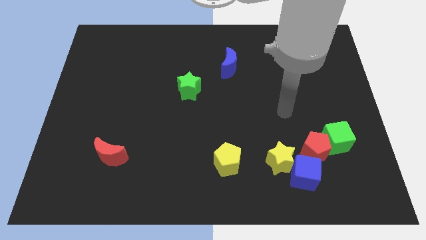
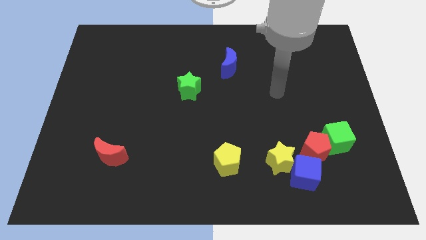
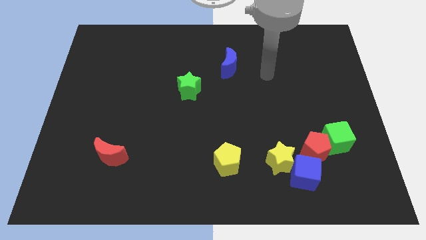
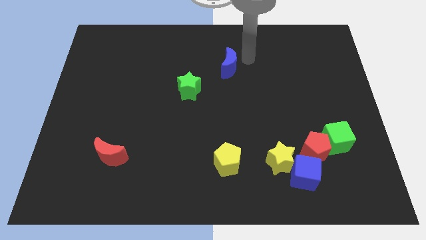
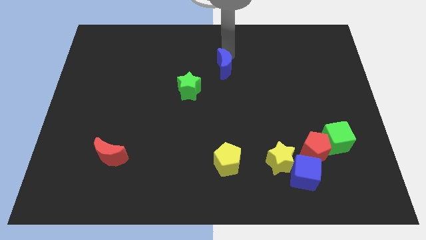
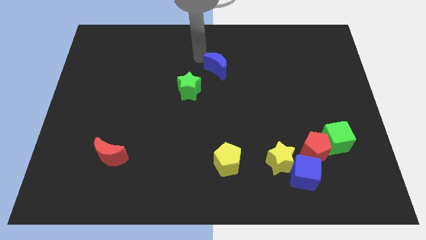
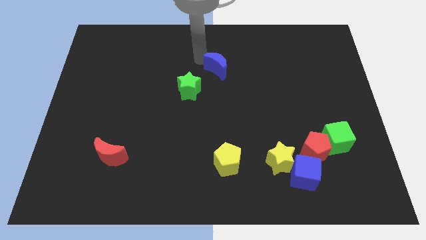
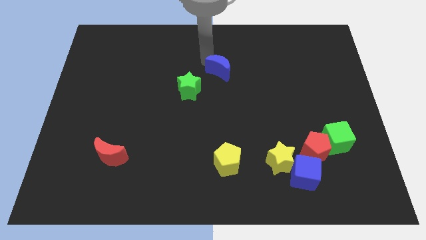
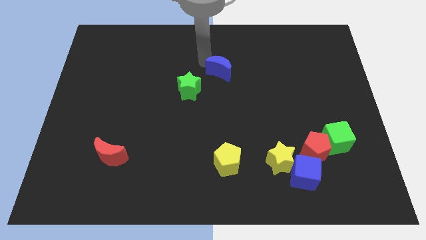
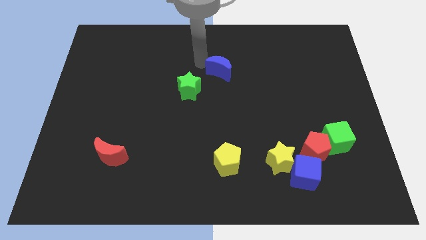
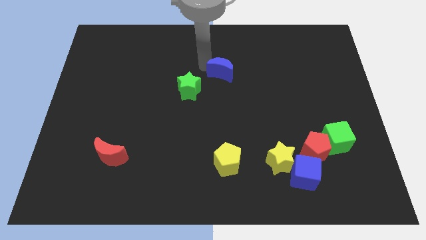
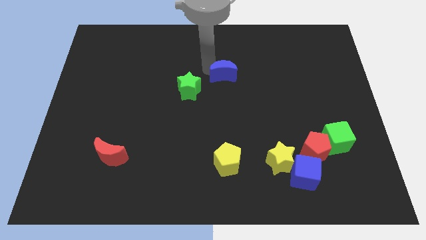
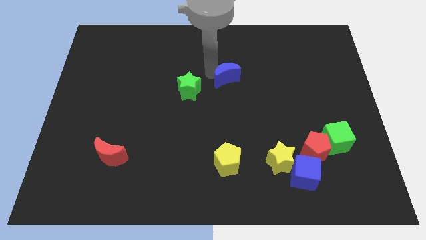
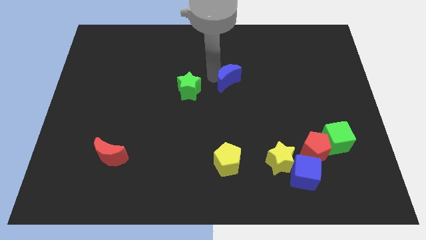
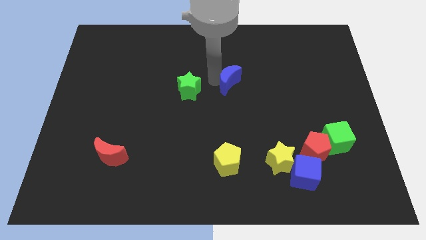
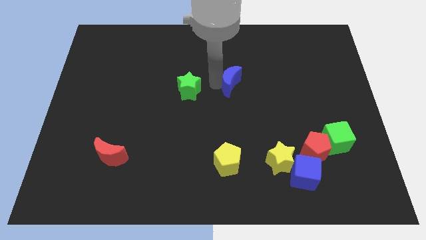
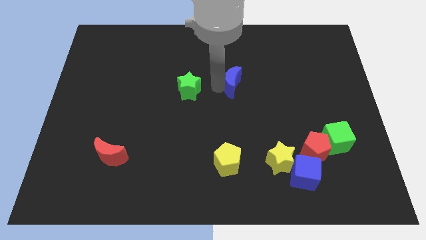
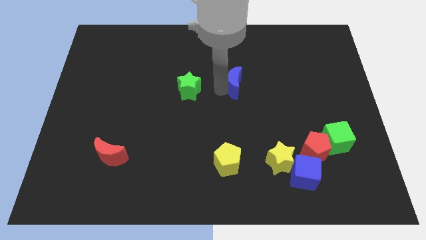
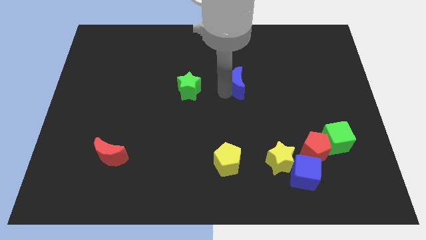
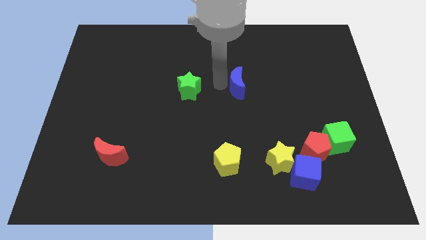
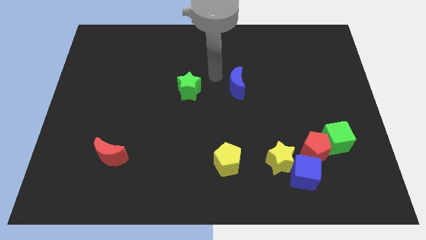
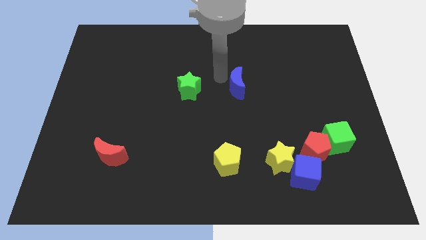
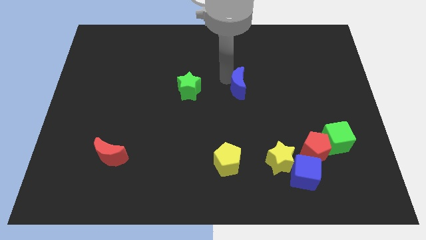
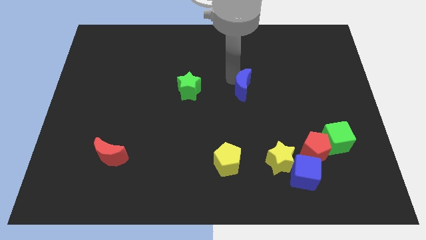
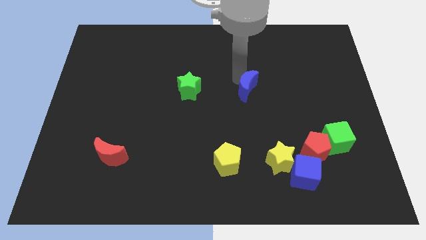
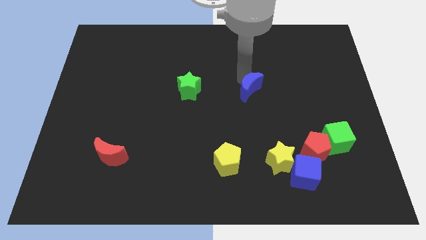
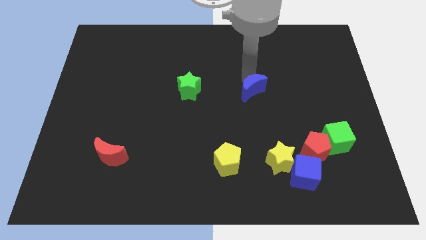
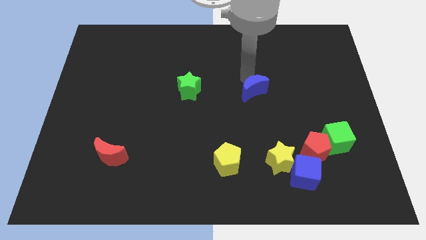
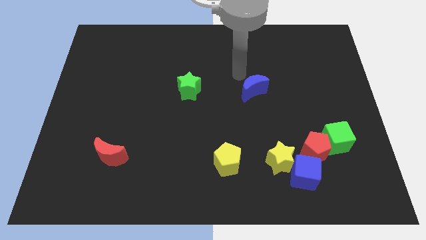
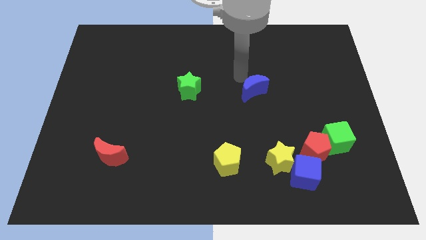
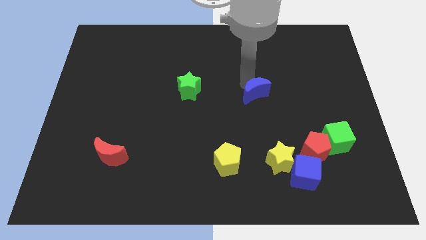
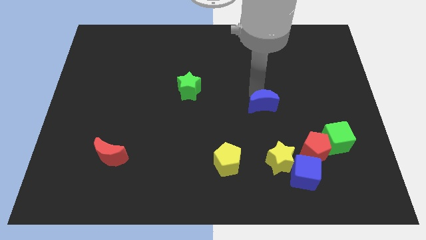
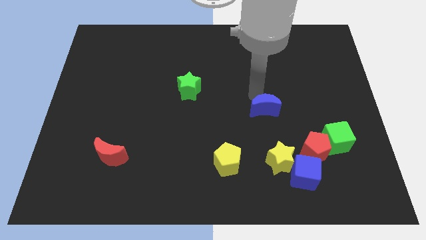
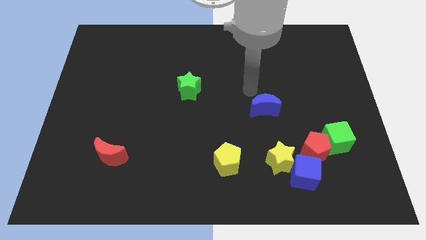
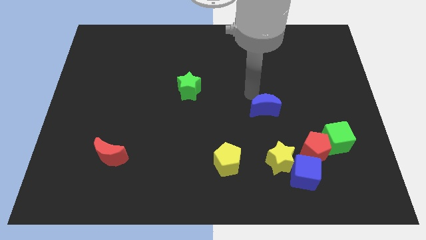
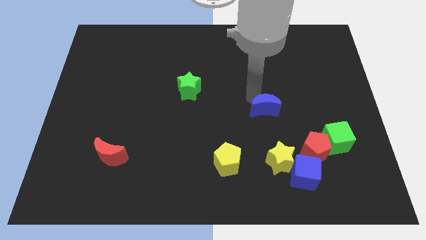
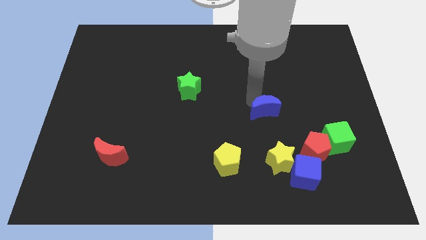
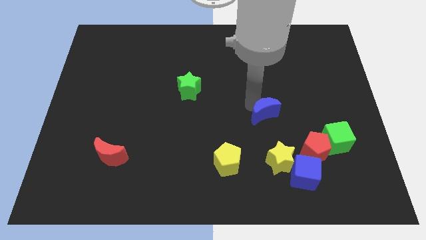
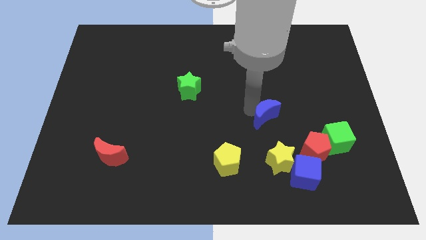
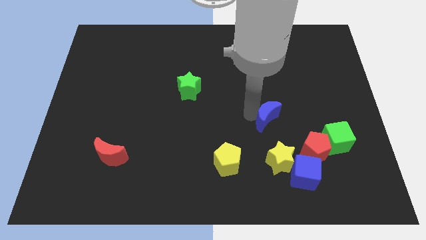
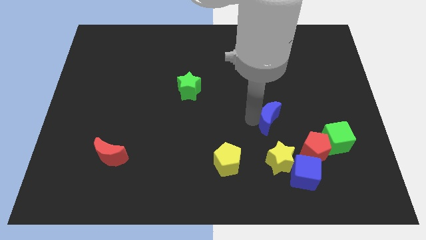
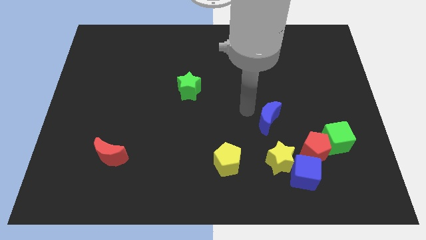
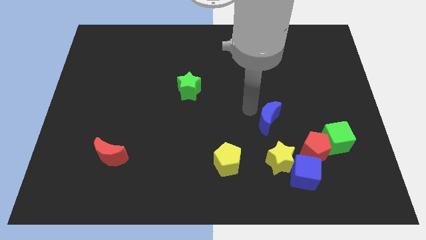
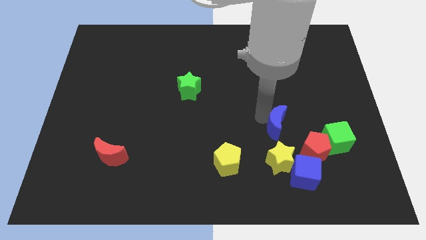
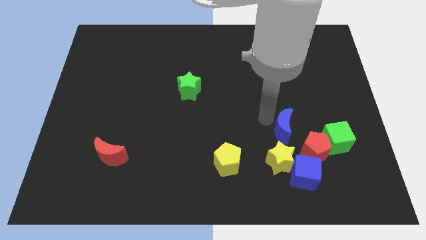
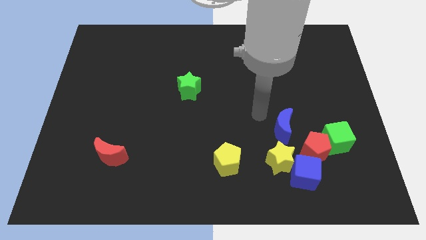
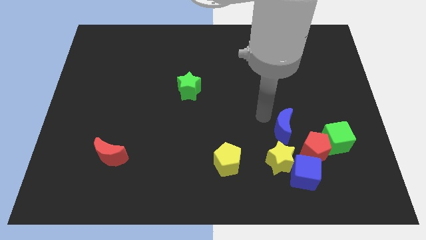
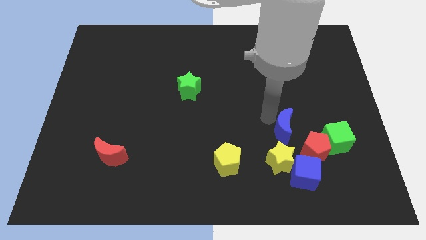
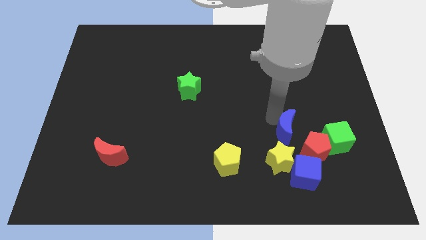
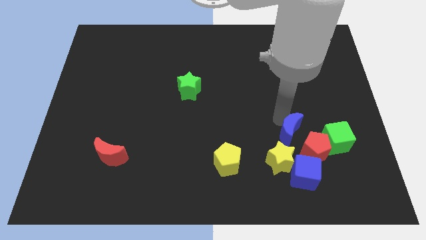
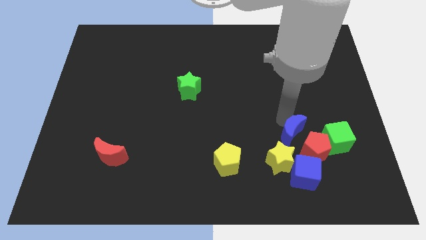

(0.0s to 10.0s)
slide the blue moon to the red pentagon

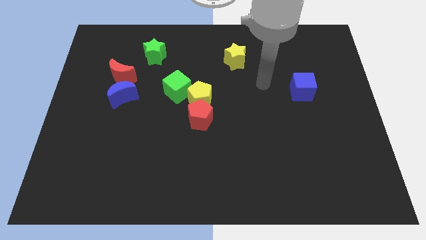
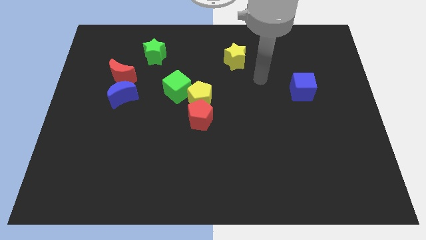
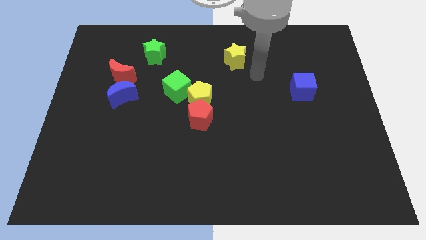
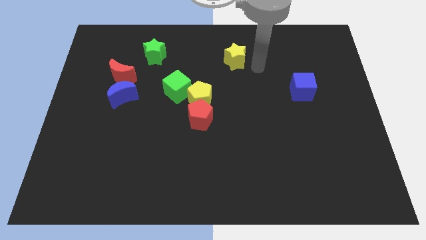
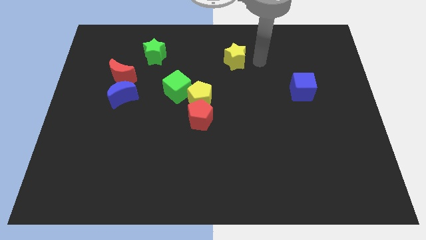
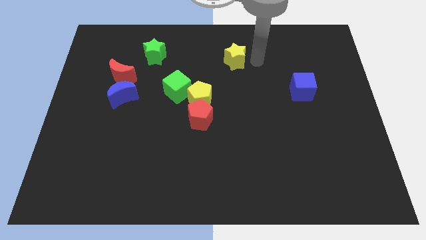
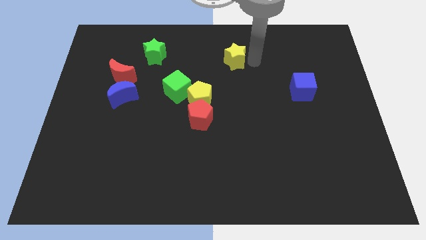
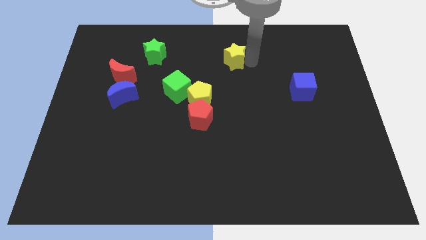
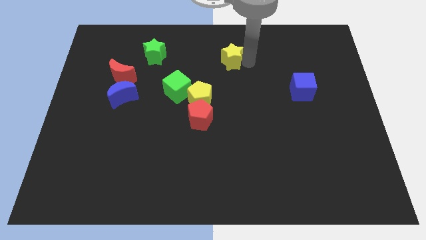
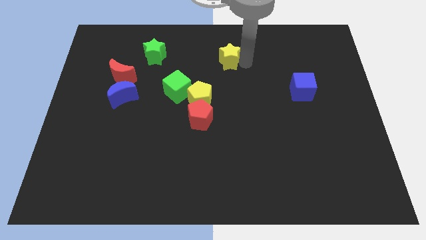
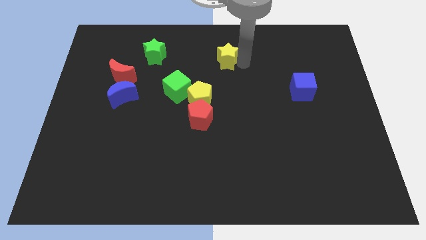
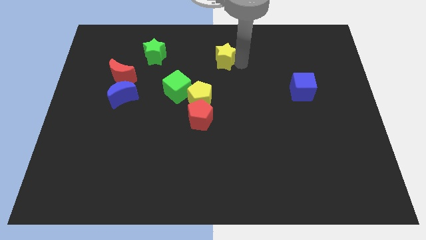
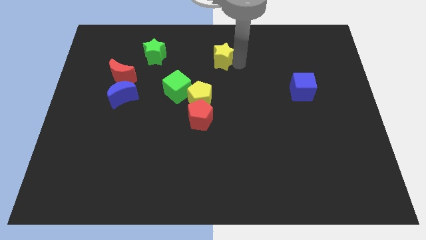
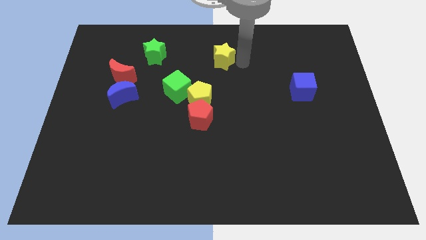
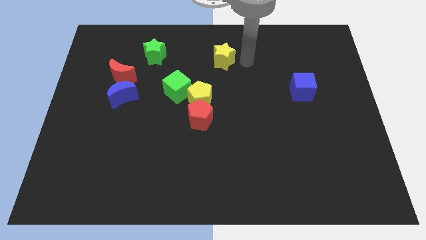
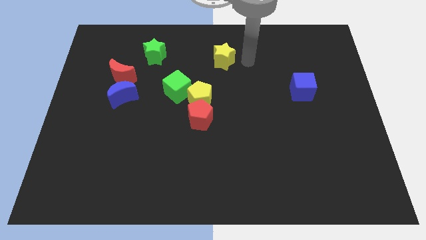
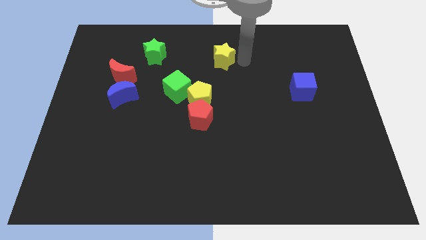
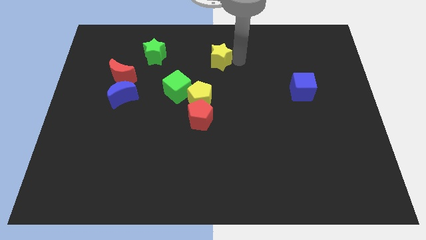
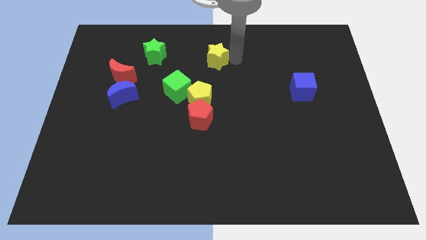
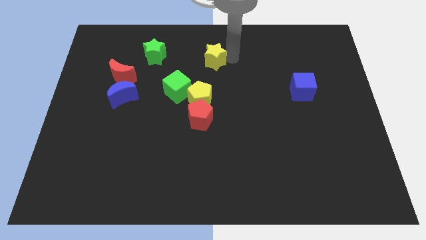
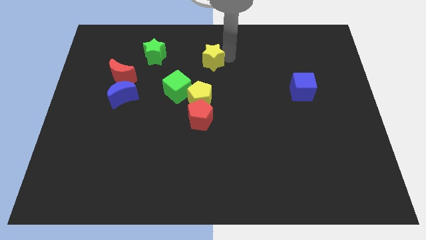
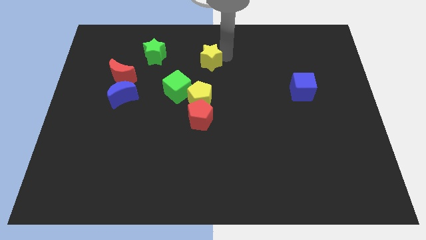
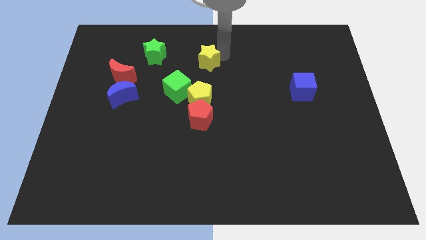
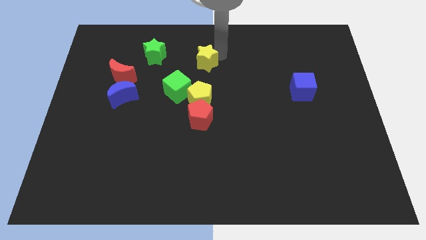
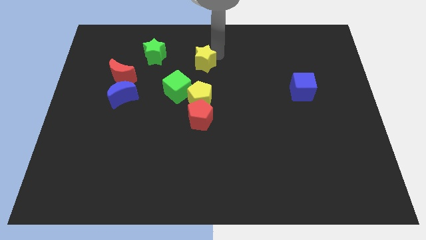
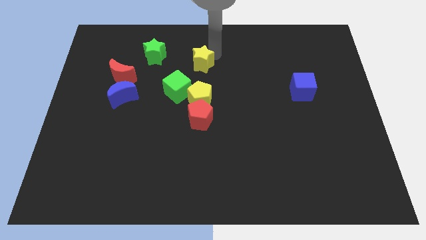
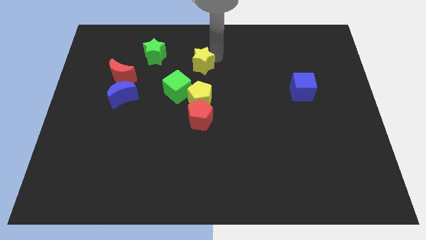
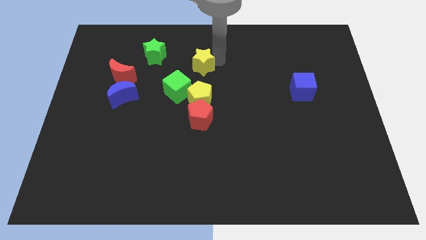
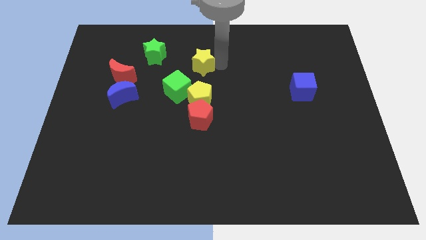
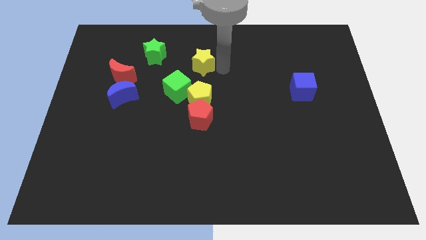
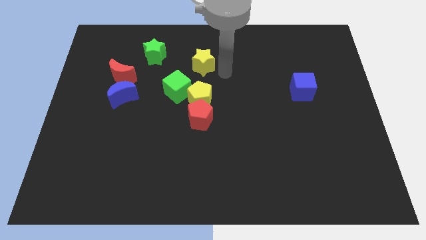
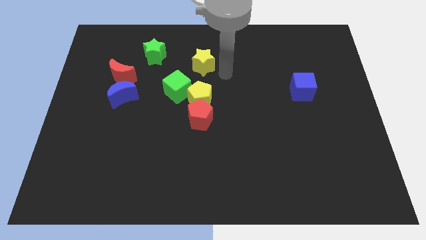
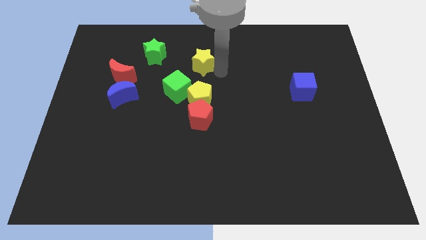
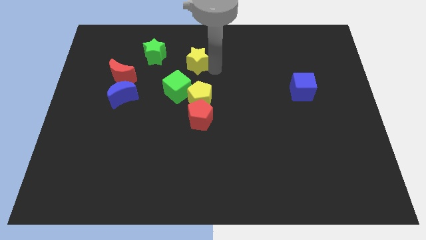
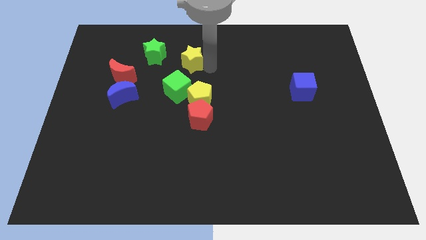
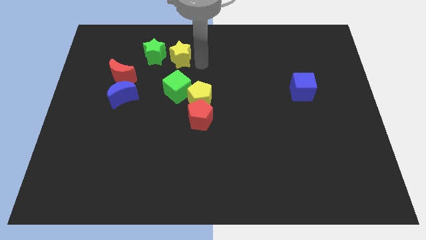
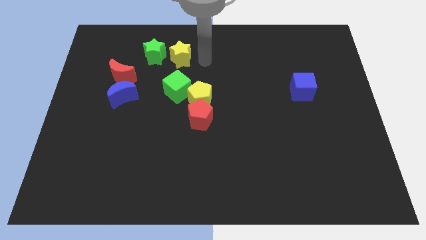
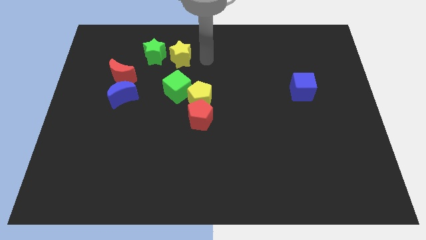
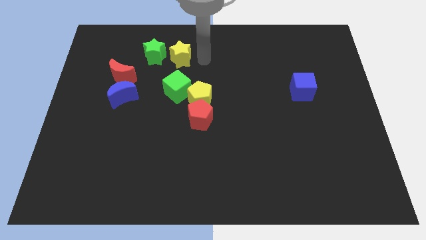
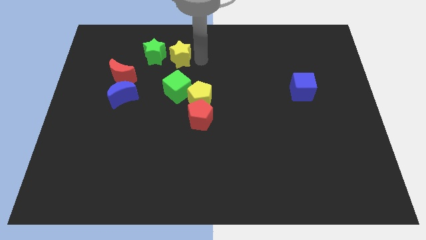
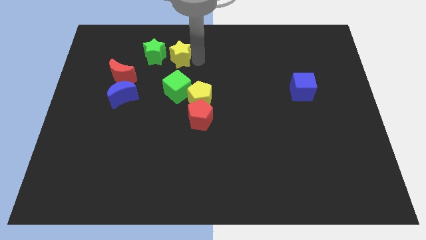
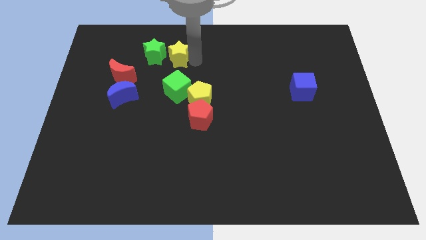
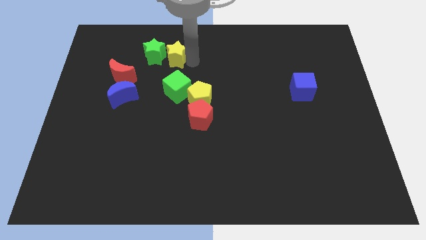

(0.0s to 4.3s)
push the yellow star towards the green star
